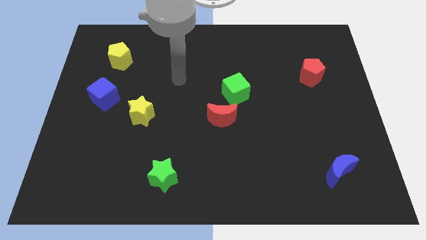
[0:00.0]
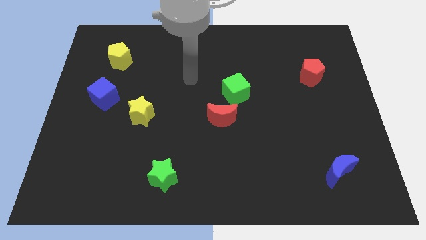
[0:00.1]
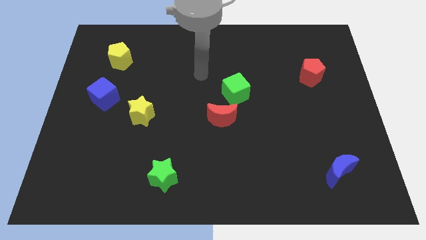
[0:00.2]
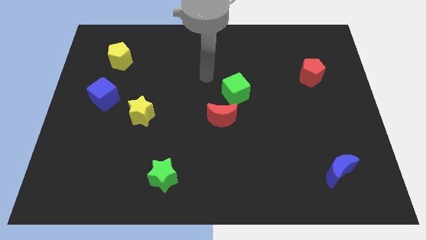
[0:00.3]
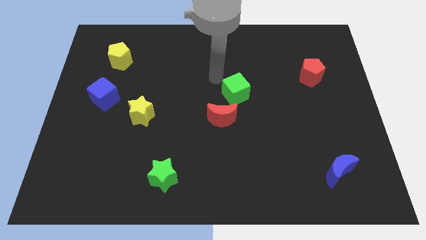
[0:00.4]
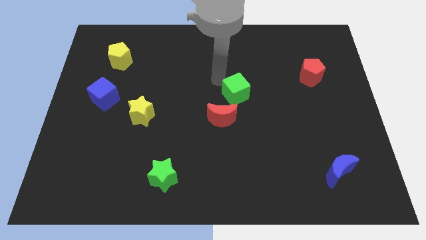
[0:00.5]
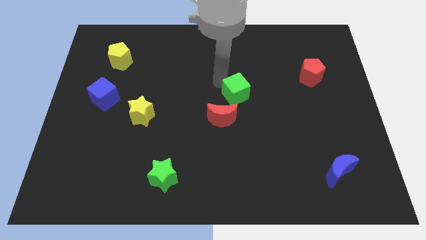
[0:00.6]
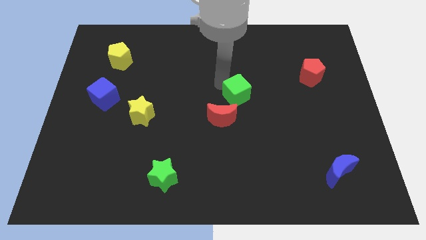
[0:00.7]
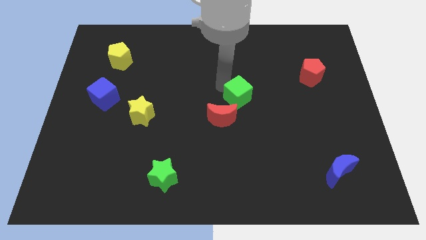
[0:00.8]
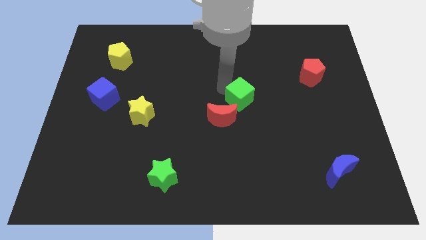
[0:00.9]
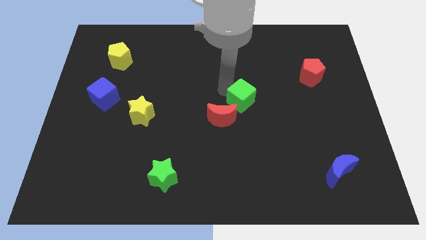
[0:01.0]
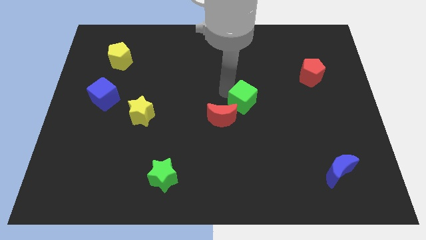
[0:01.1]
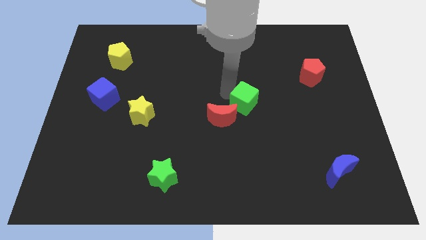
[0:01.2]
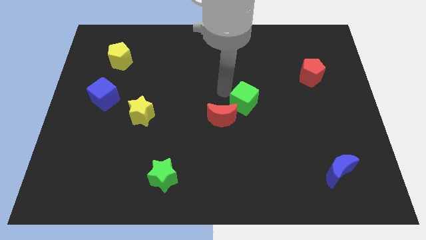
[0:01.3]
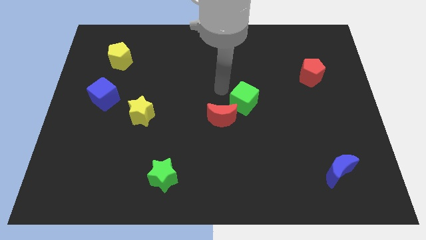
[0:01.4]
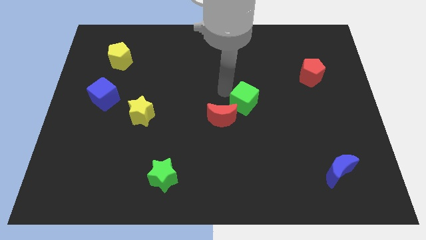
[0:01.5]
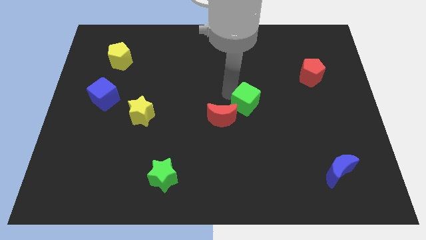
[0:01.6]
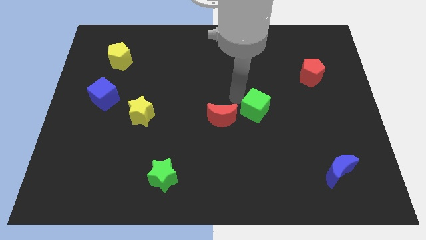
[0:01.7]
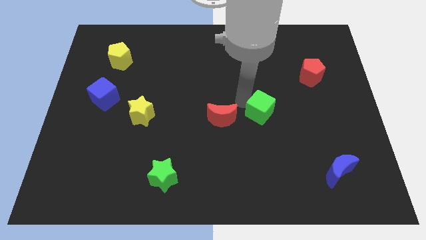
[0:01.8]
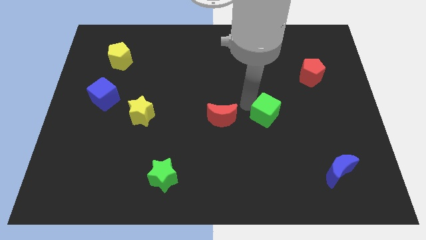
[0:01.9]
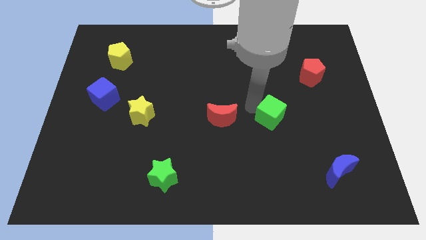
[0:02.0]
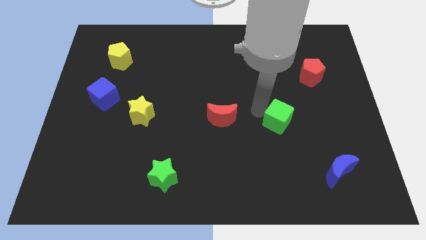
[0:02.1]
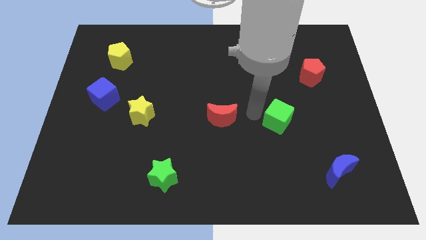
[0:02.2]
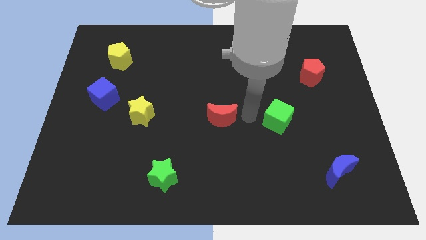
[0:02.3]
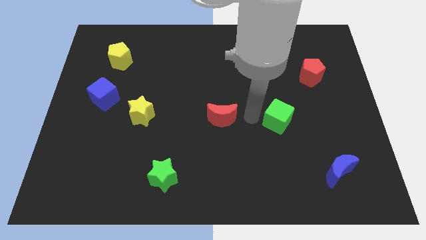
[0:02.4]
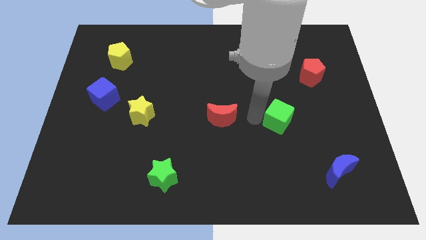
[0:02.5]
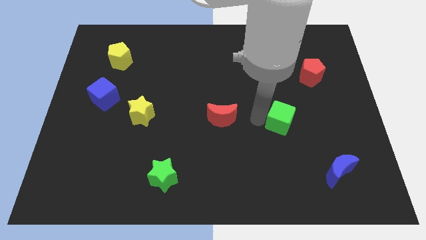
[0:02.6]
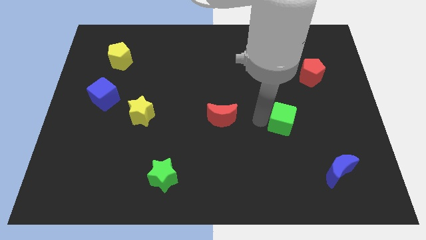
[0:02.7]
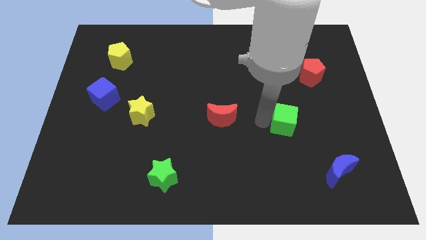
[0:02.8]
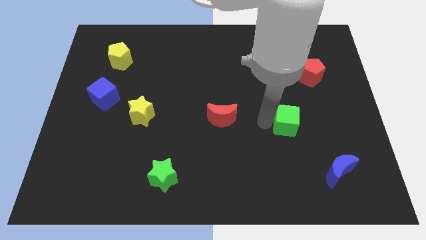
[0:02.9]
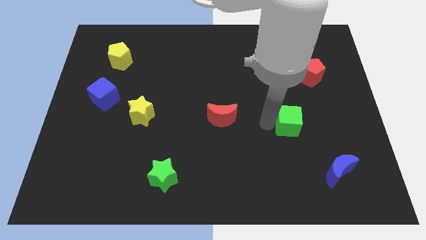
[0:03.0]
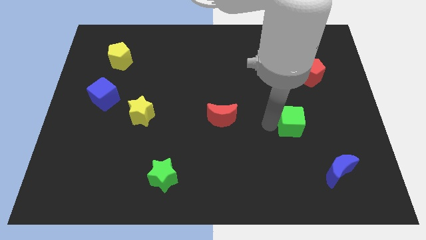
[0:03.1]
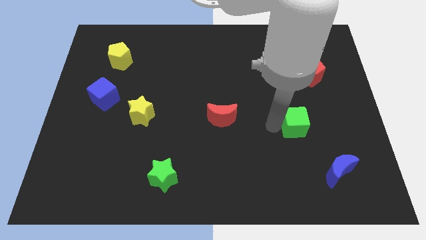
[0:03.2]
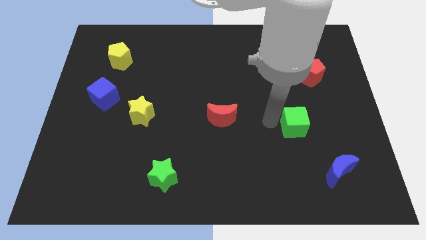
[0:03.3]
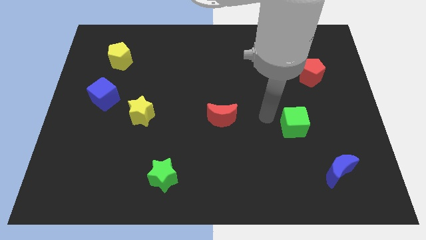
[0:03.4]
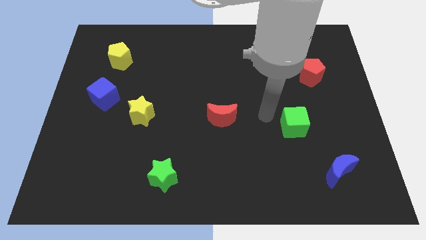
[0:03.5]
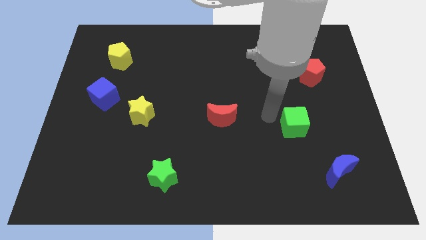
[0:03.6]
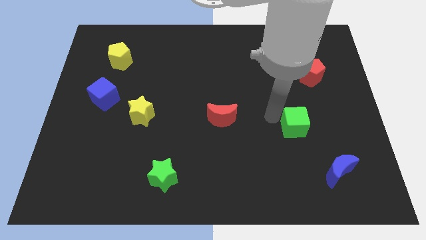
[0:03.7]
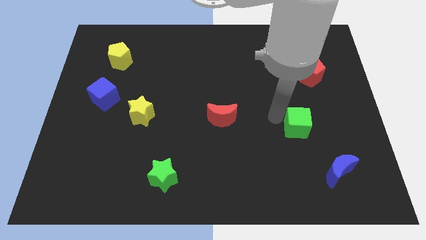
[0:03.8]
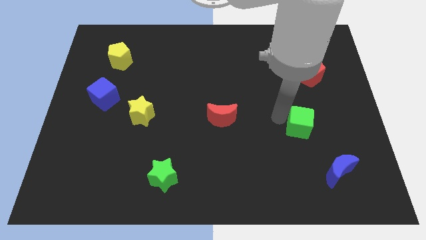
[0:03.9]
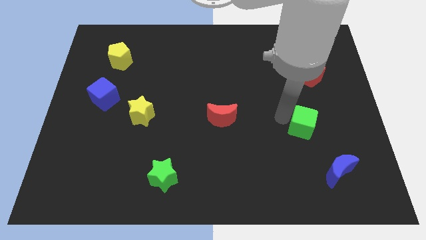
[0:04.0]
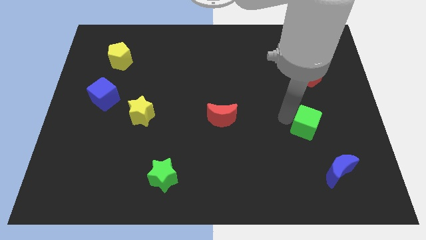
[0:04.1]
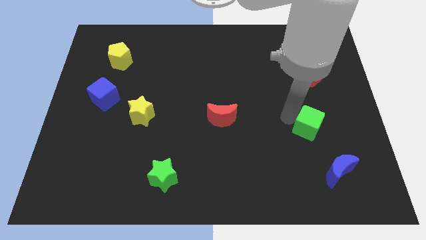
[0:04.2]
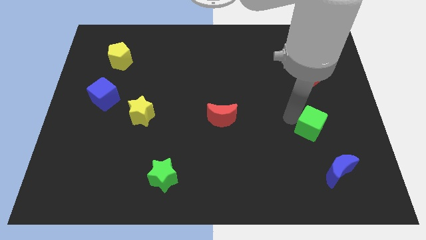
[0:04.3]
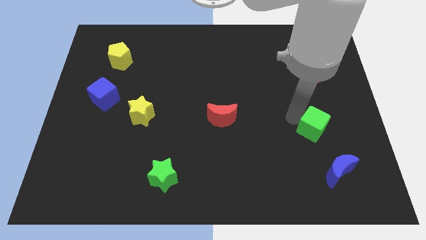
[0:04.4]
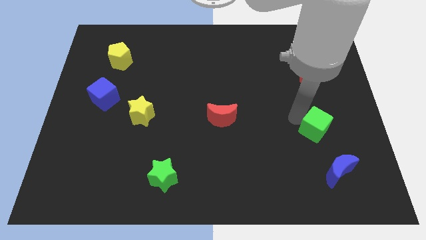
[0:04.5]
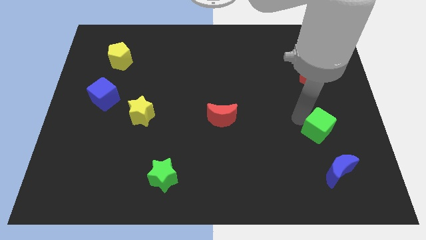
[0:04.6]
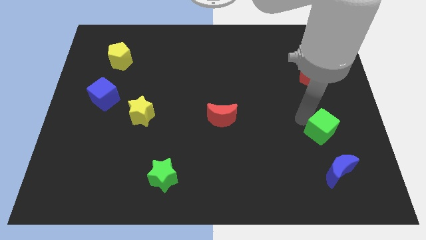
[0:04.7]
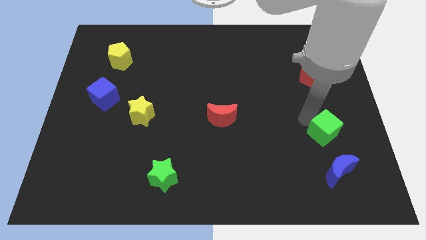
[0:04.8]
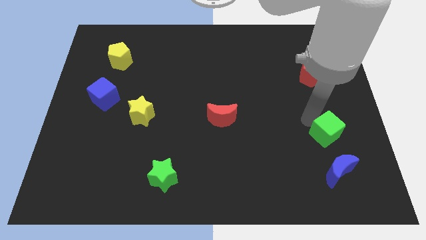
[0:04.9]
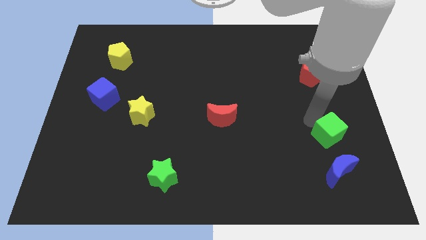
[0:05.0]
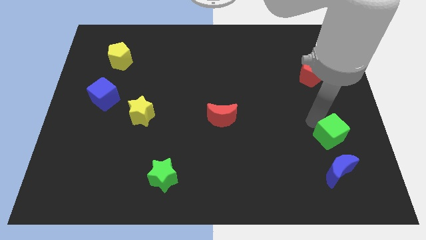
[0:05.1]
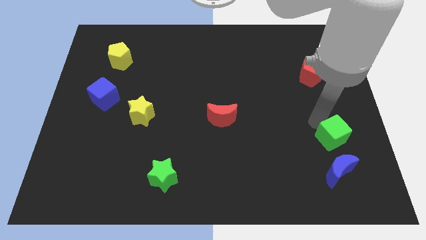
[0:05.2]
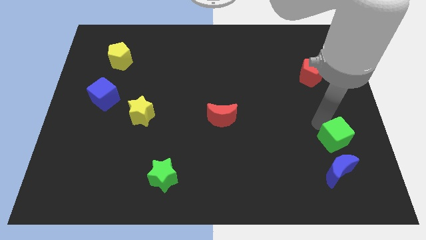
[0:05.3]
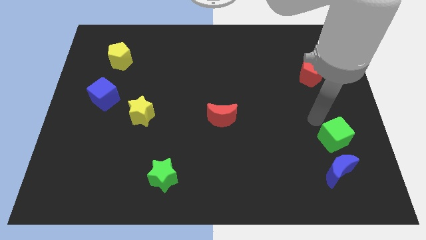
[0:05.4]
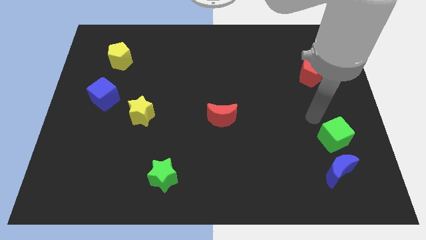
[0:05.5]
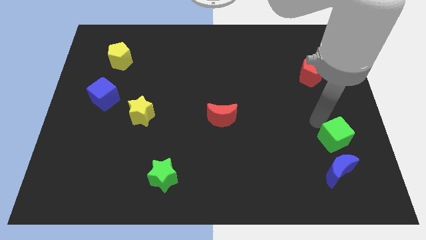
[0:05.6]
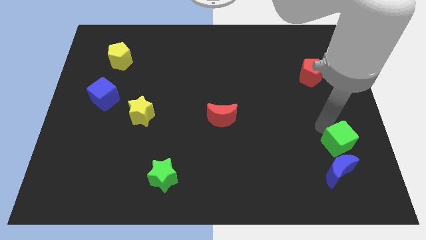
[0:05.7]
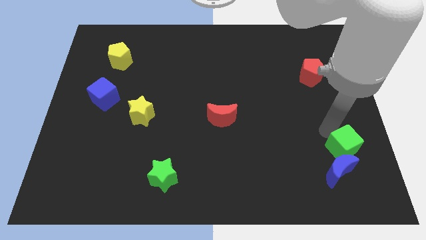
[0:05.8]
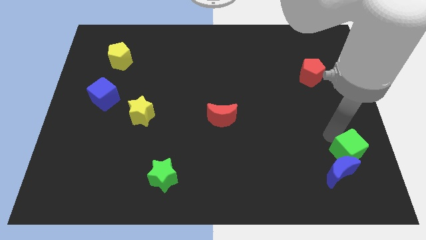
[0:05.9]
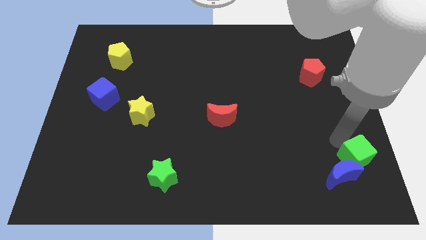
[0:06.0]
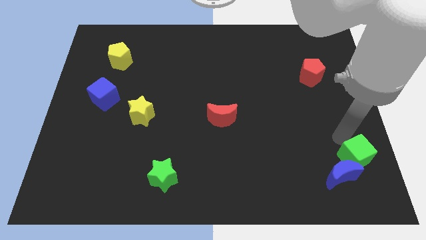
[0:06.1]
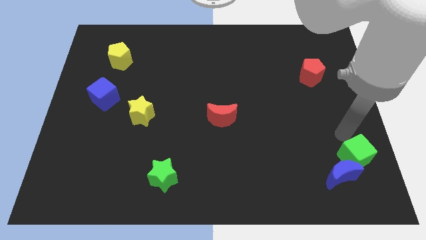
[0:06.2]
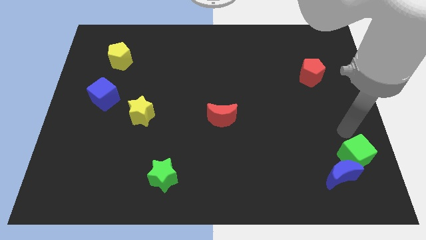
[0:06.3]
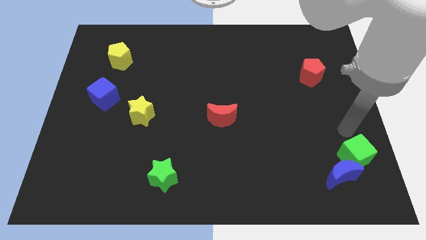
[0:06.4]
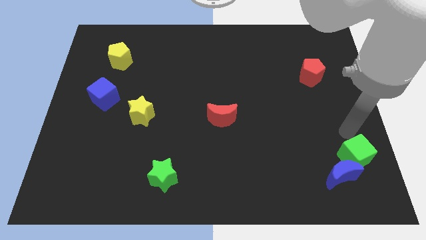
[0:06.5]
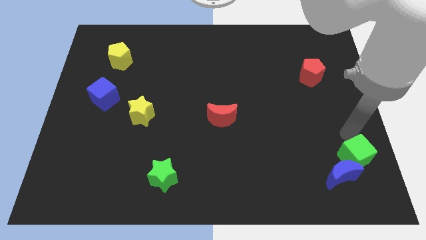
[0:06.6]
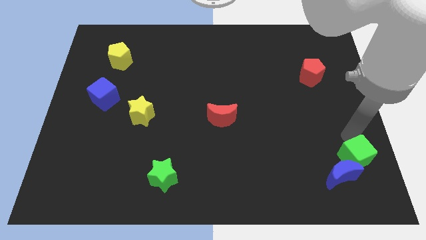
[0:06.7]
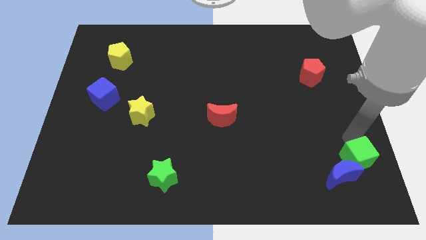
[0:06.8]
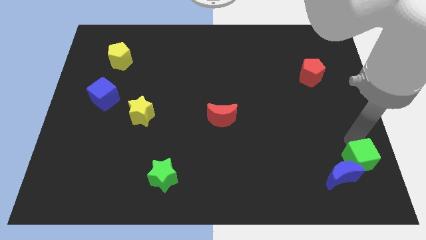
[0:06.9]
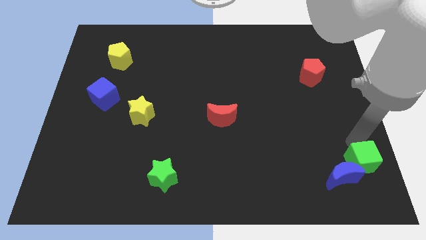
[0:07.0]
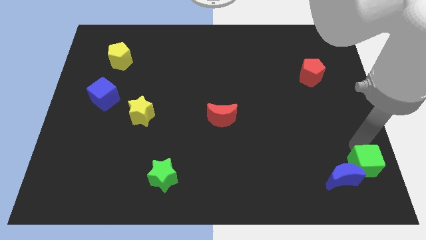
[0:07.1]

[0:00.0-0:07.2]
slide the green cube to the bottom right
